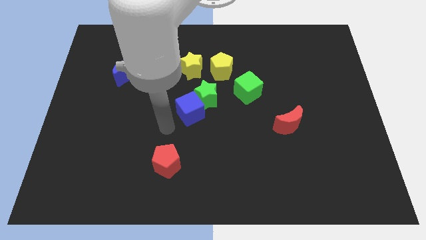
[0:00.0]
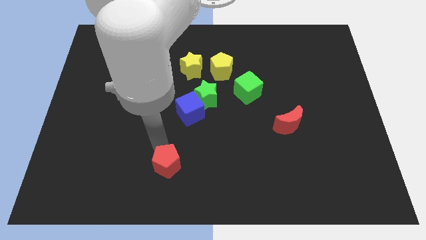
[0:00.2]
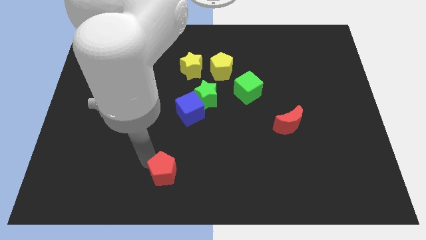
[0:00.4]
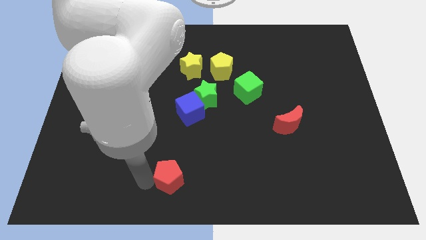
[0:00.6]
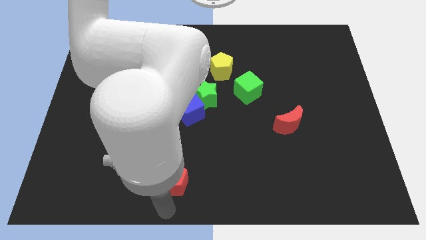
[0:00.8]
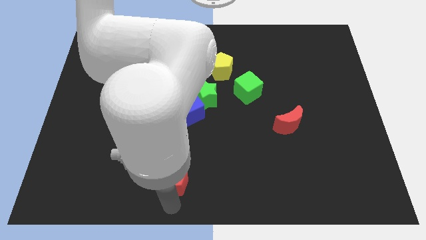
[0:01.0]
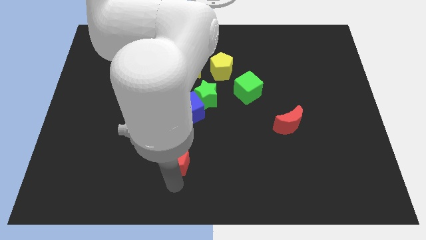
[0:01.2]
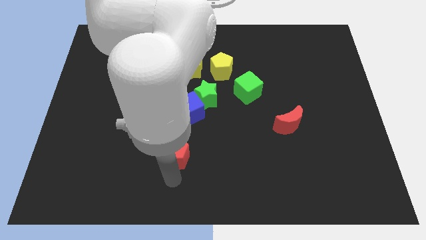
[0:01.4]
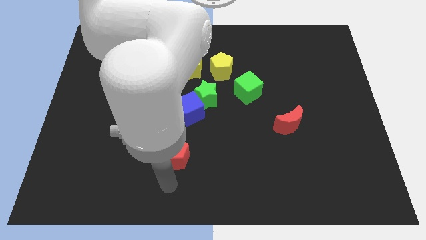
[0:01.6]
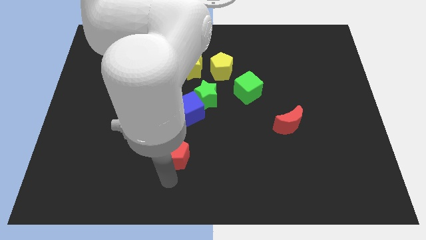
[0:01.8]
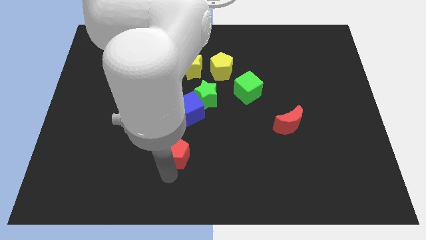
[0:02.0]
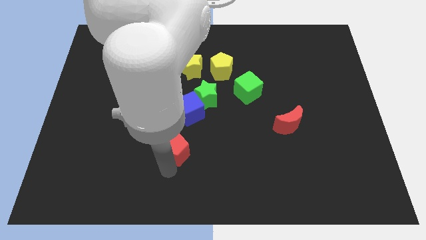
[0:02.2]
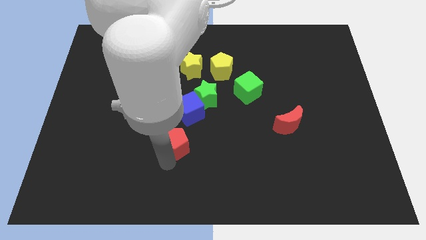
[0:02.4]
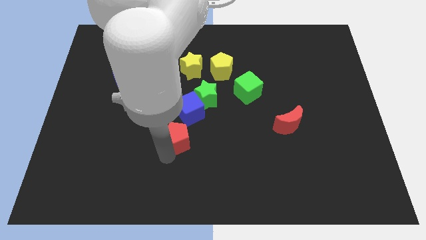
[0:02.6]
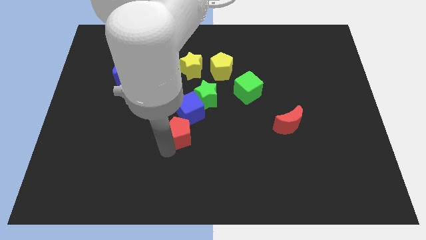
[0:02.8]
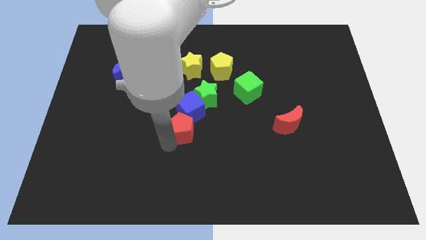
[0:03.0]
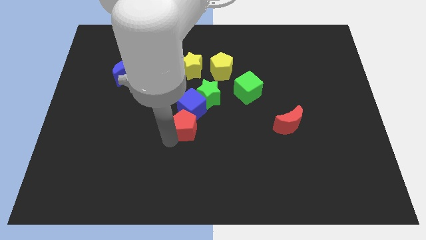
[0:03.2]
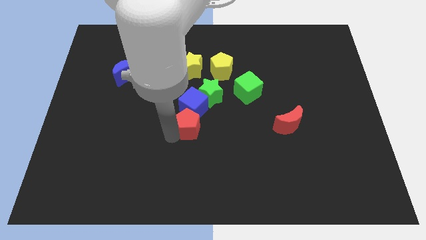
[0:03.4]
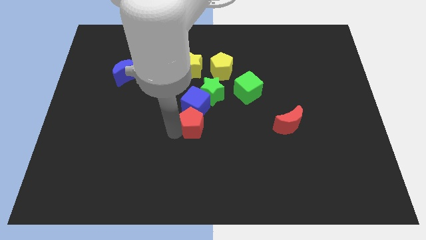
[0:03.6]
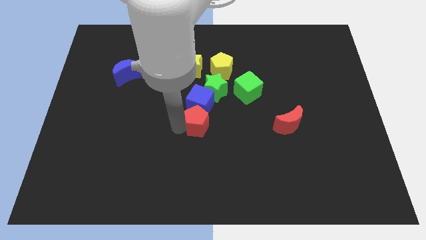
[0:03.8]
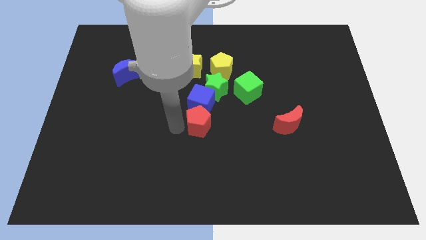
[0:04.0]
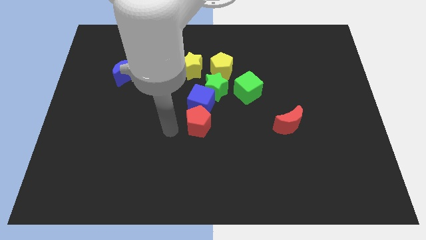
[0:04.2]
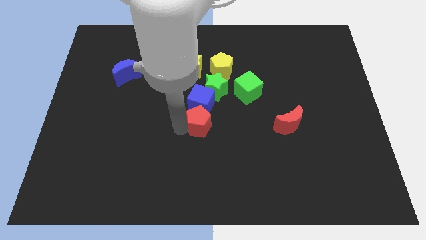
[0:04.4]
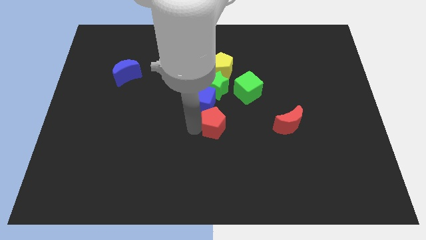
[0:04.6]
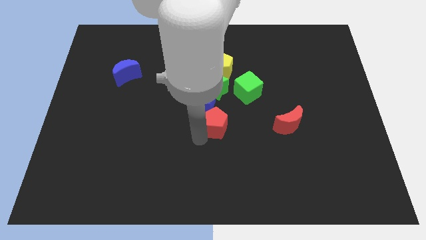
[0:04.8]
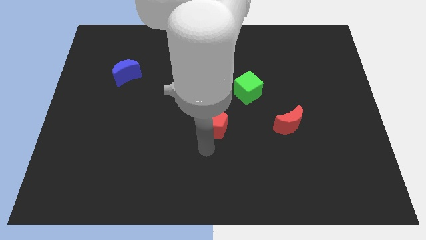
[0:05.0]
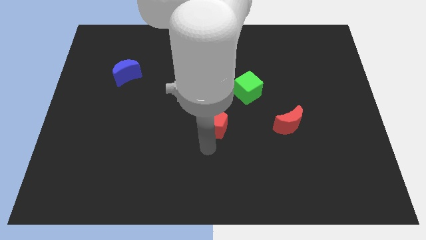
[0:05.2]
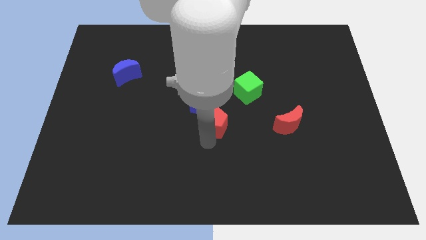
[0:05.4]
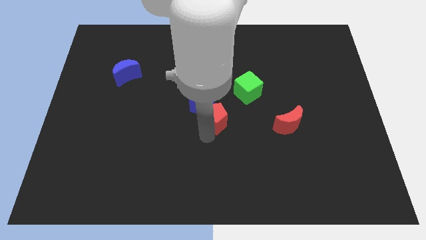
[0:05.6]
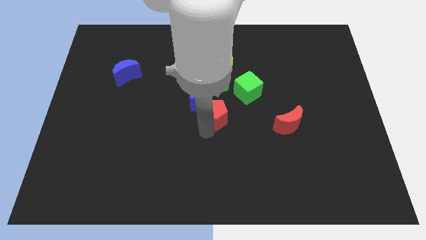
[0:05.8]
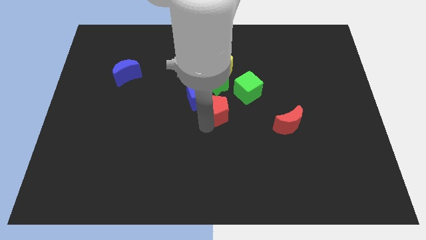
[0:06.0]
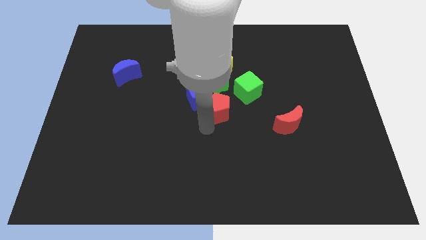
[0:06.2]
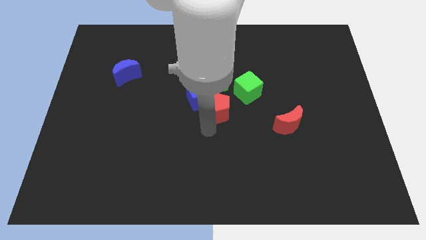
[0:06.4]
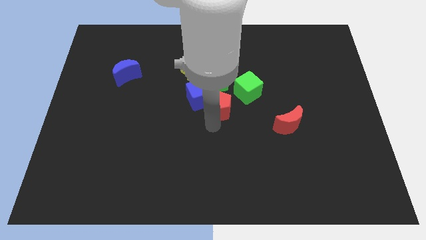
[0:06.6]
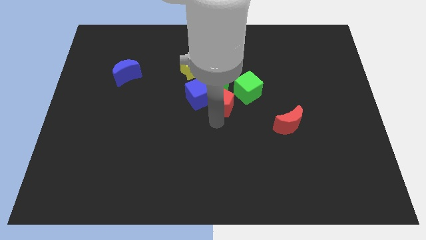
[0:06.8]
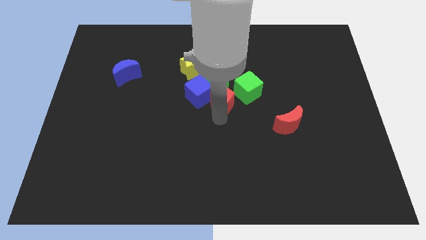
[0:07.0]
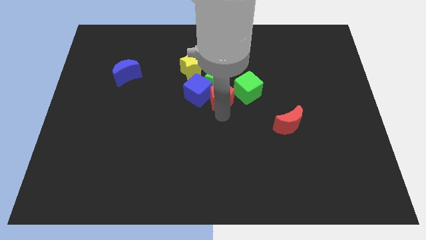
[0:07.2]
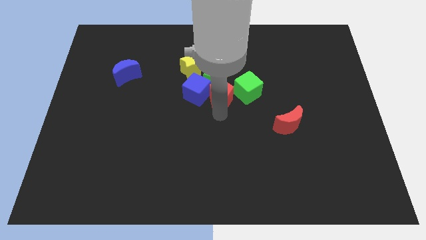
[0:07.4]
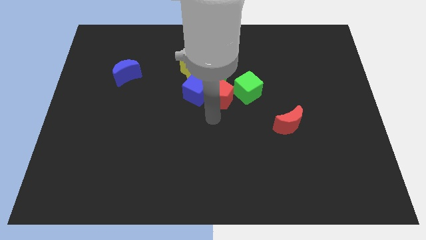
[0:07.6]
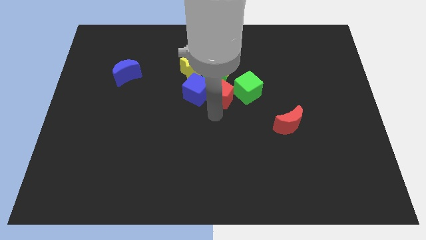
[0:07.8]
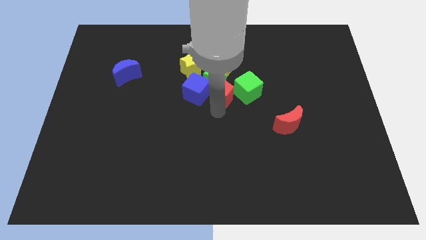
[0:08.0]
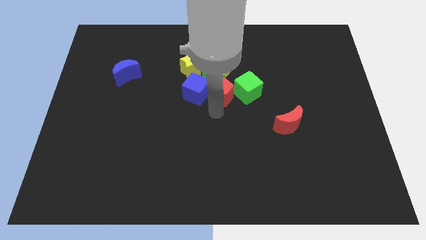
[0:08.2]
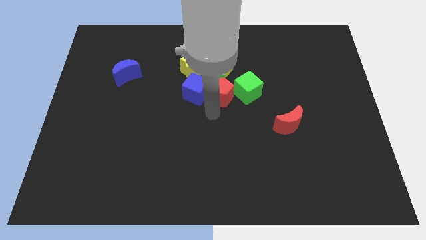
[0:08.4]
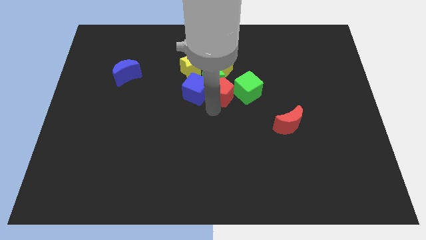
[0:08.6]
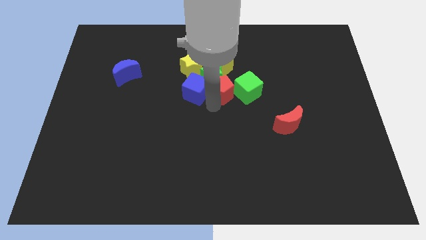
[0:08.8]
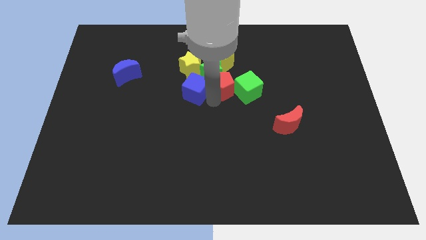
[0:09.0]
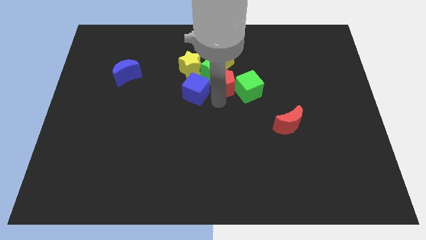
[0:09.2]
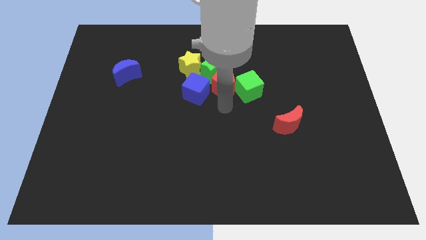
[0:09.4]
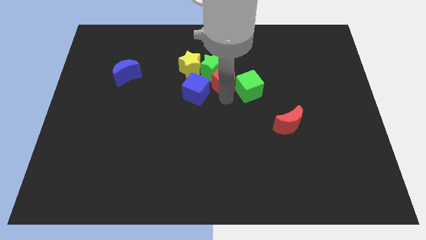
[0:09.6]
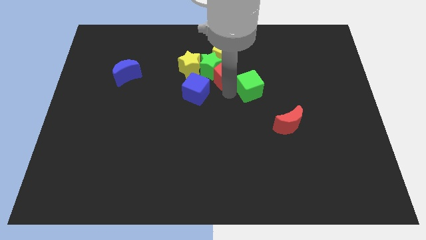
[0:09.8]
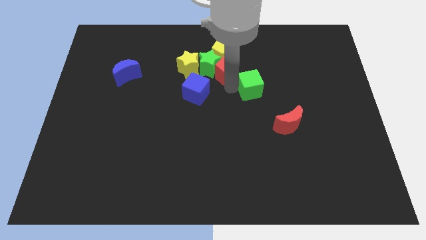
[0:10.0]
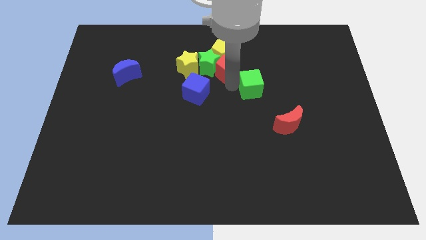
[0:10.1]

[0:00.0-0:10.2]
slide the red pentagon close to the yellow pentagon

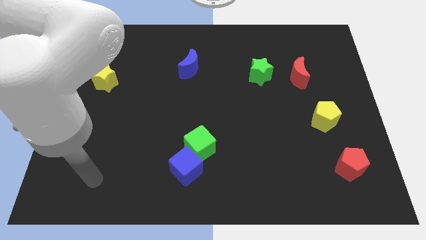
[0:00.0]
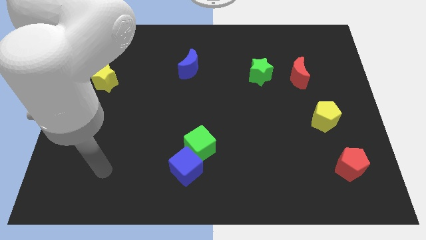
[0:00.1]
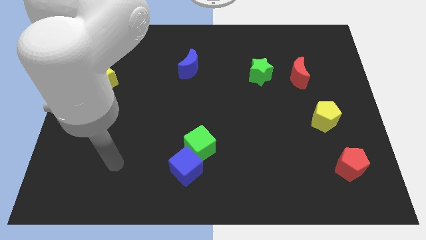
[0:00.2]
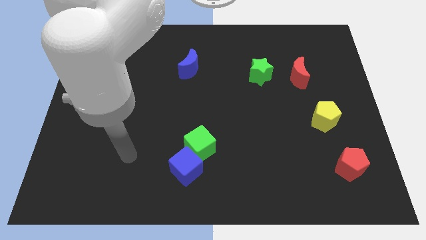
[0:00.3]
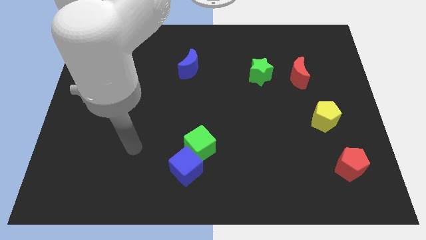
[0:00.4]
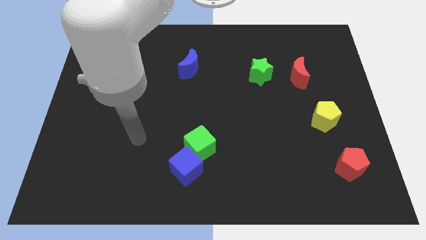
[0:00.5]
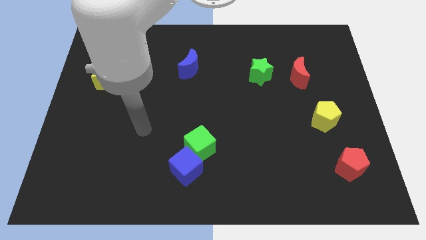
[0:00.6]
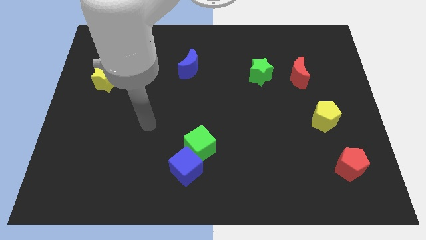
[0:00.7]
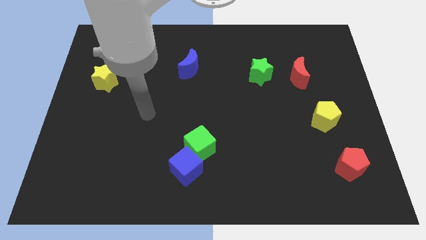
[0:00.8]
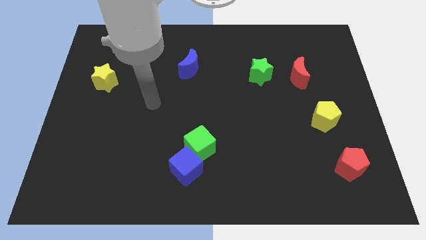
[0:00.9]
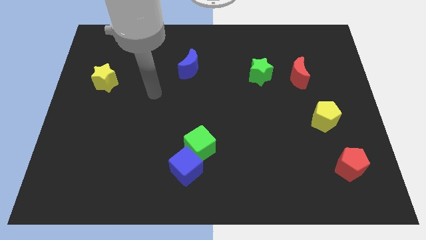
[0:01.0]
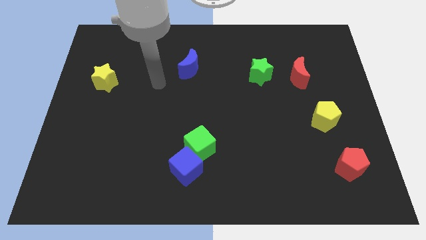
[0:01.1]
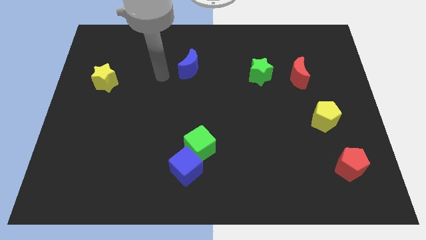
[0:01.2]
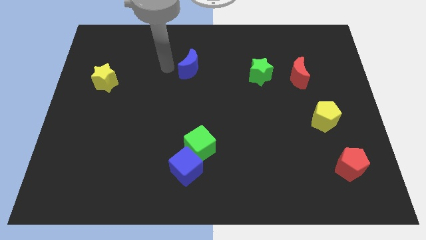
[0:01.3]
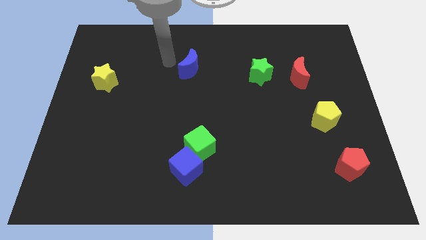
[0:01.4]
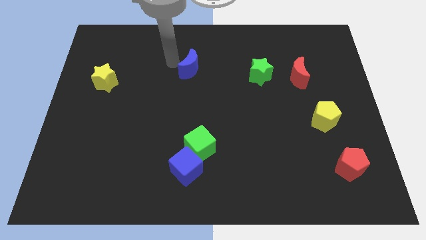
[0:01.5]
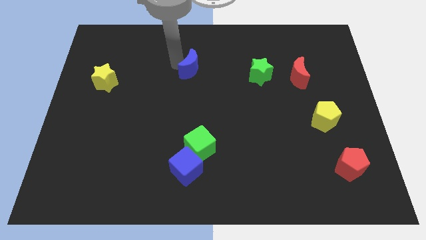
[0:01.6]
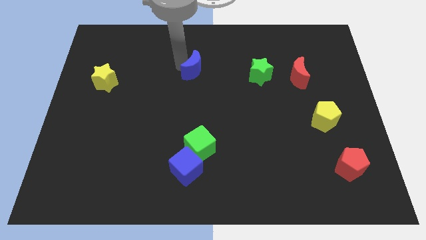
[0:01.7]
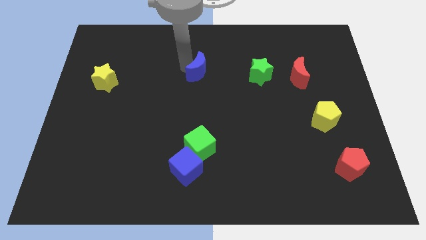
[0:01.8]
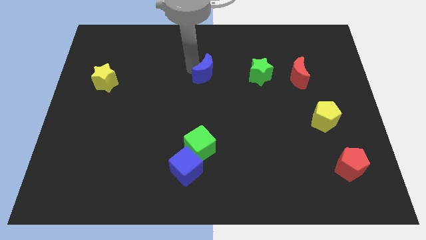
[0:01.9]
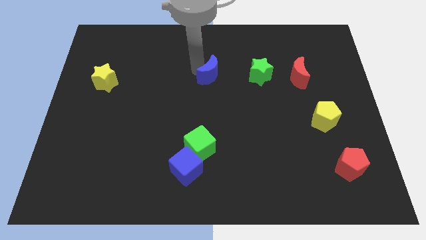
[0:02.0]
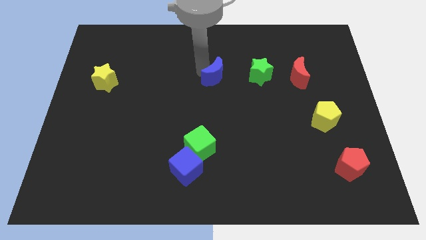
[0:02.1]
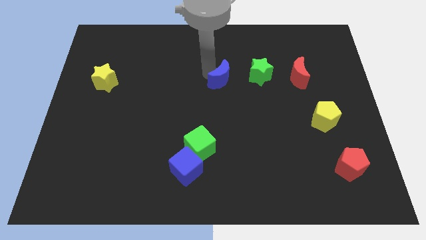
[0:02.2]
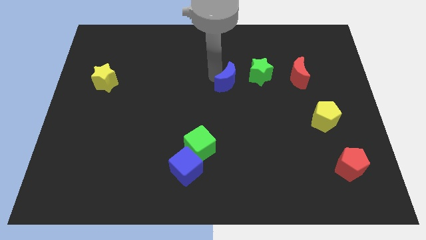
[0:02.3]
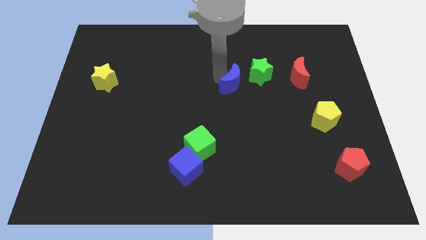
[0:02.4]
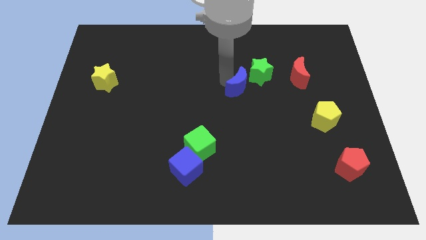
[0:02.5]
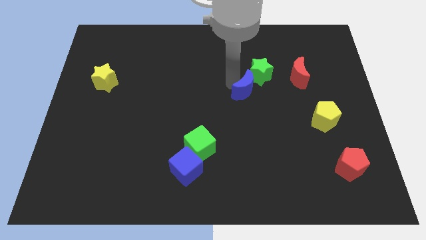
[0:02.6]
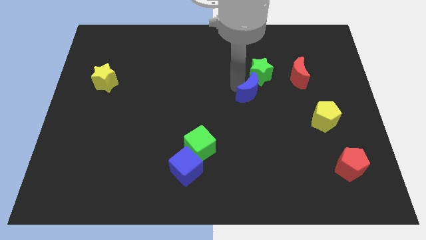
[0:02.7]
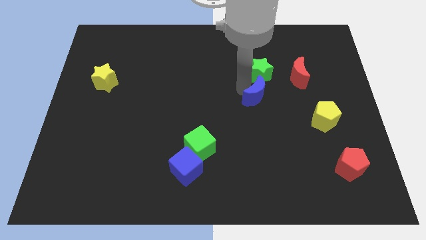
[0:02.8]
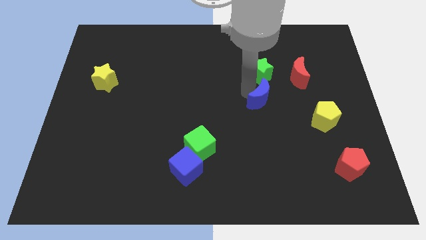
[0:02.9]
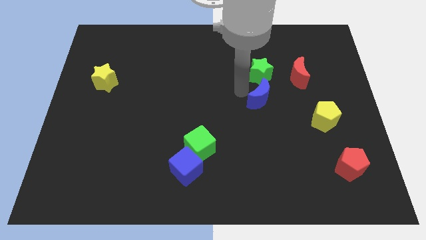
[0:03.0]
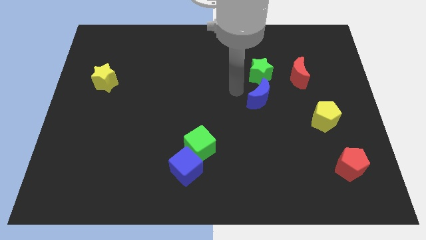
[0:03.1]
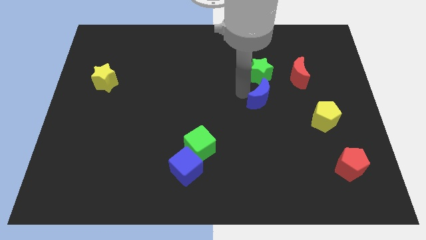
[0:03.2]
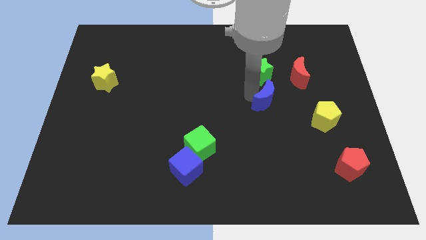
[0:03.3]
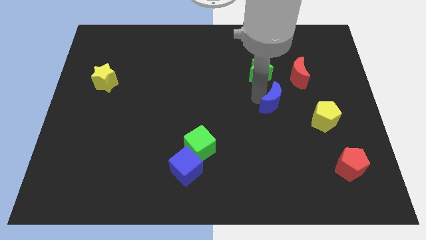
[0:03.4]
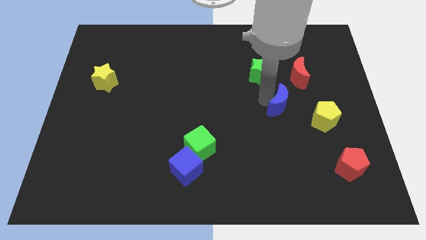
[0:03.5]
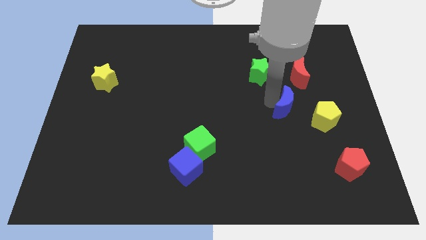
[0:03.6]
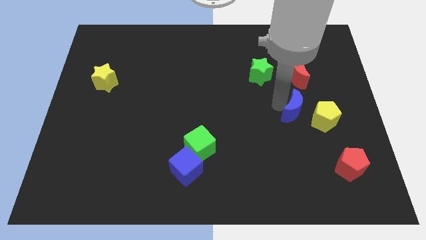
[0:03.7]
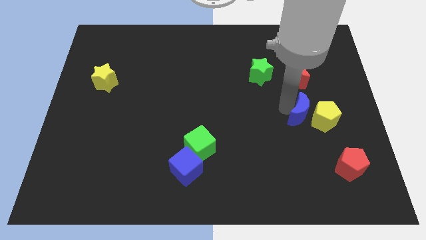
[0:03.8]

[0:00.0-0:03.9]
push the blue moon to the yellow pentagon
